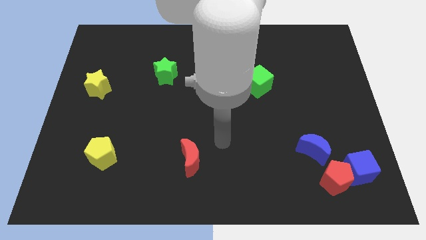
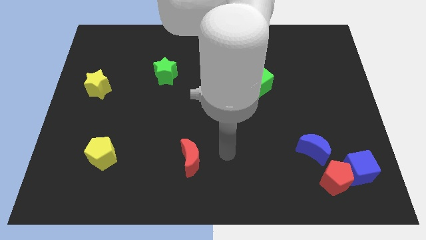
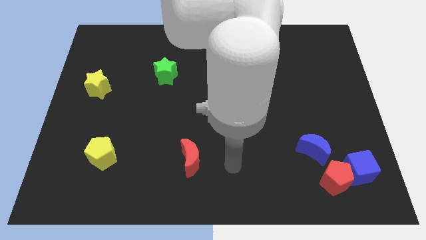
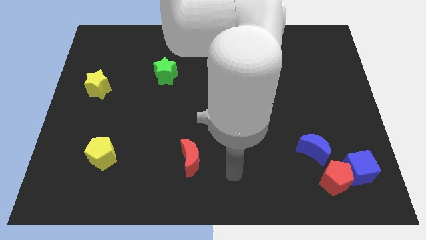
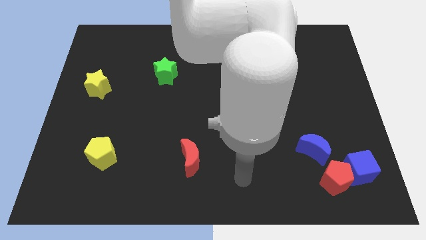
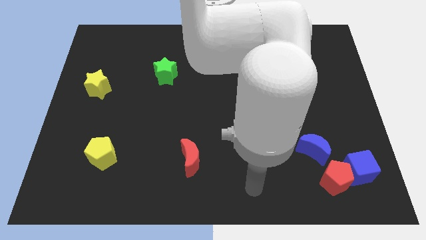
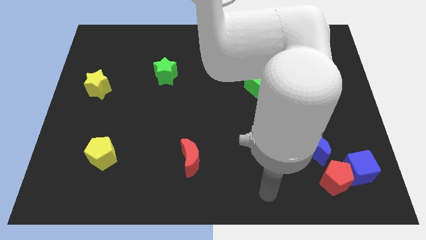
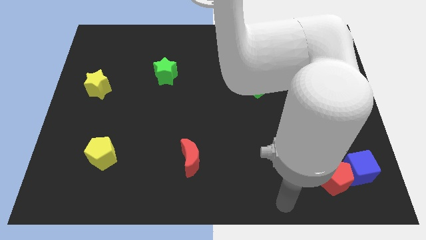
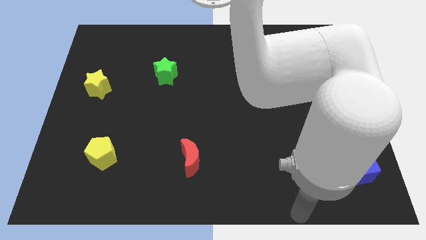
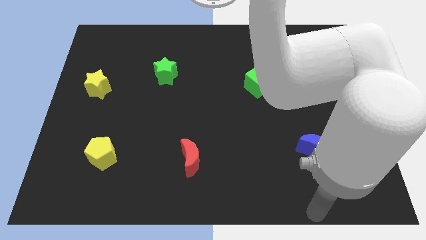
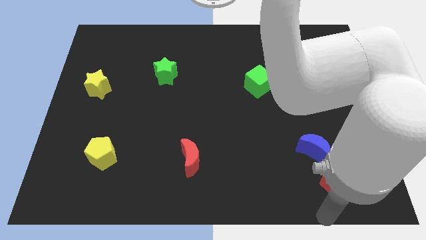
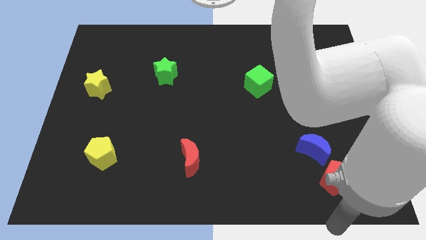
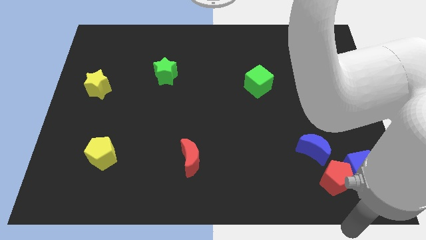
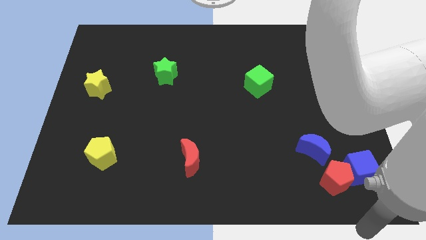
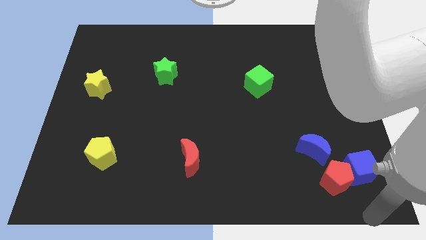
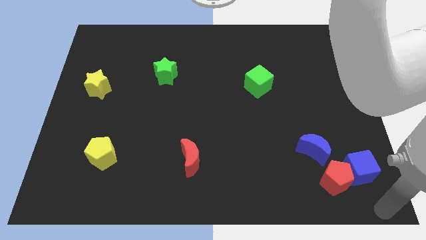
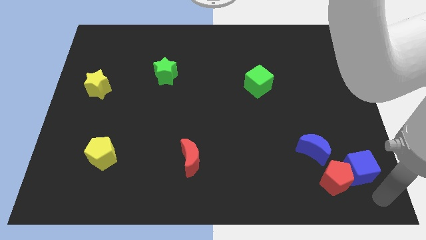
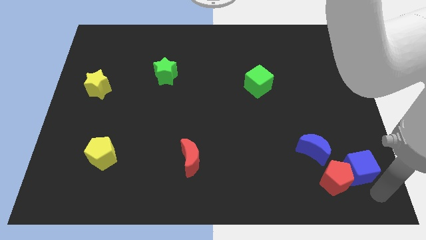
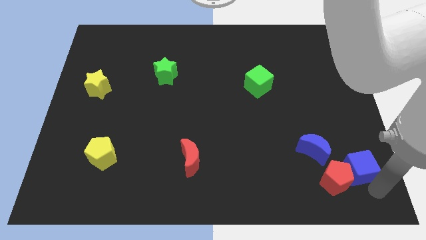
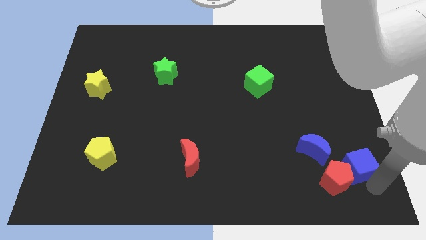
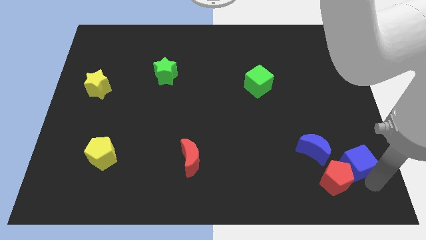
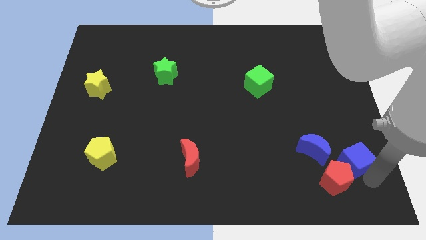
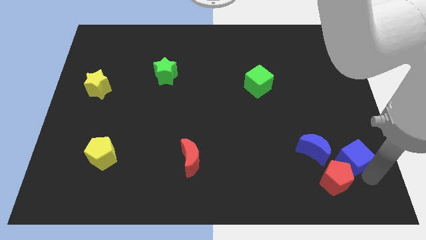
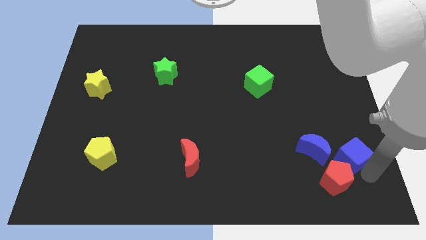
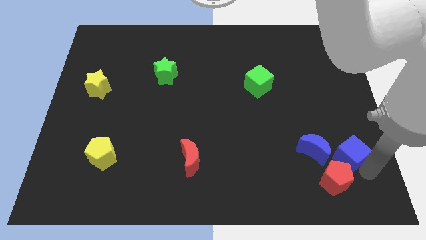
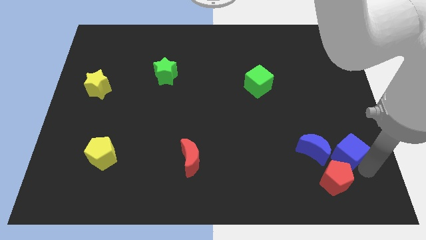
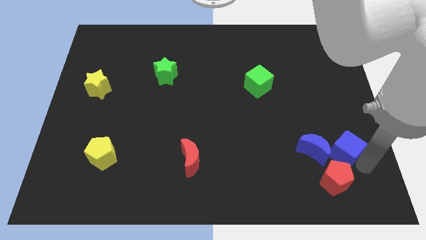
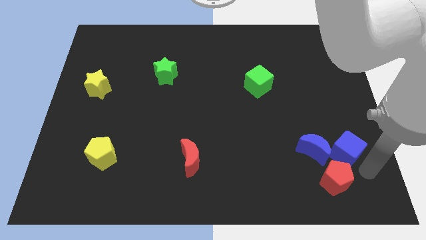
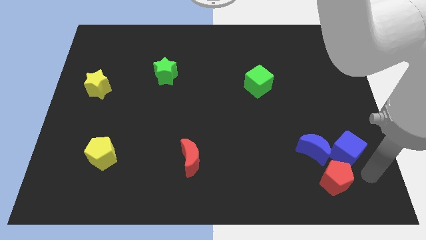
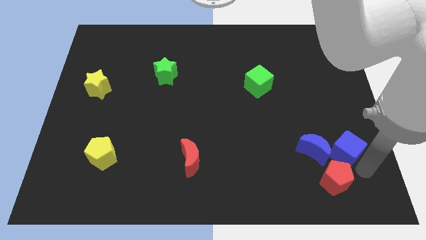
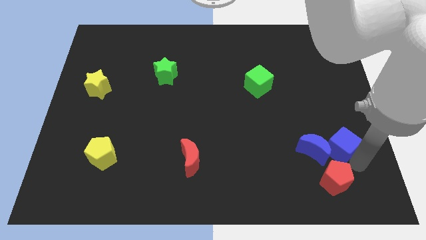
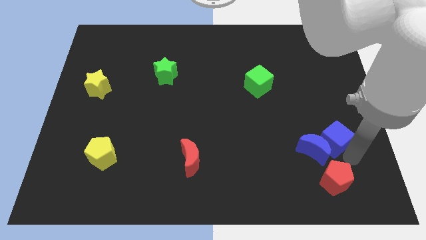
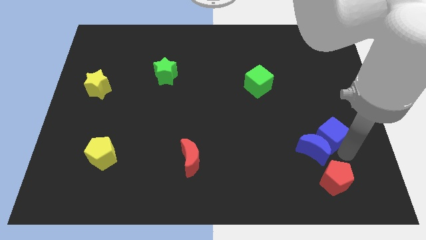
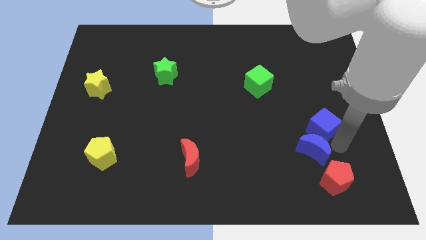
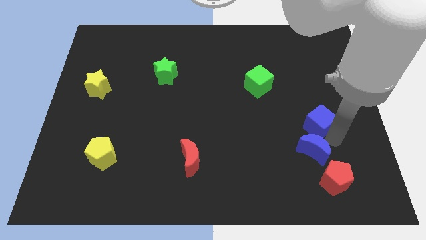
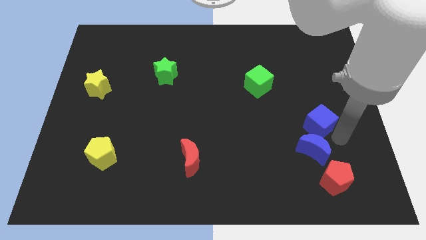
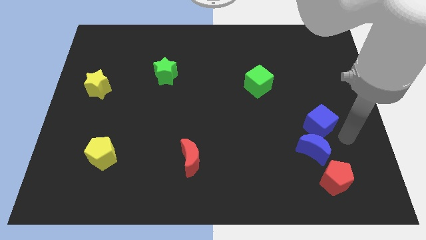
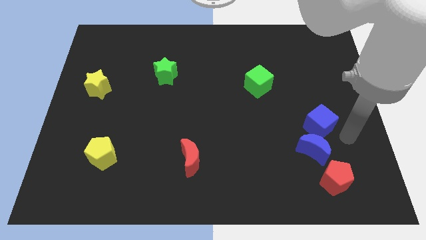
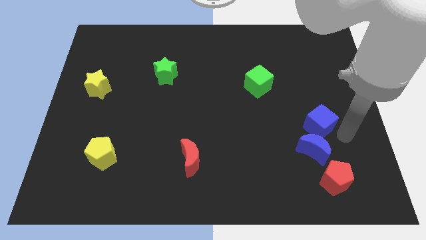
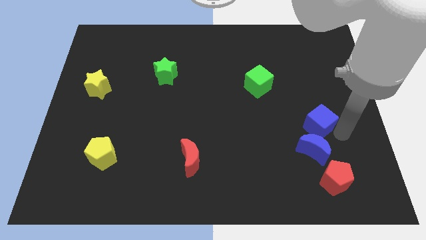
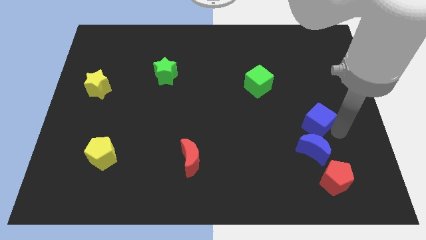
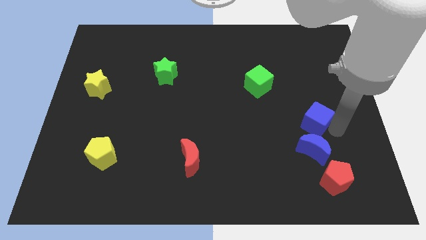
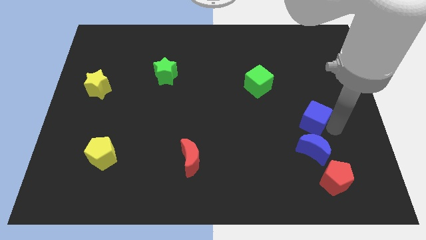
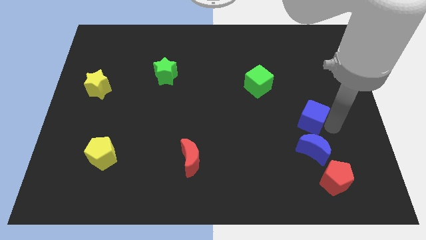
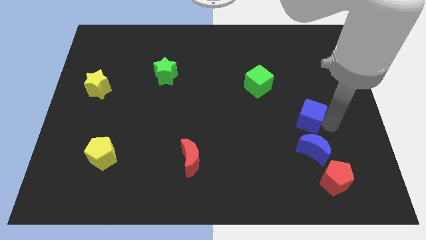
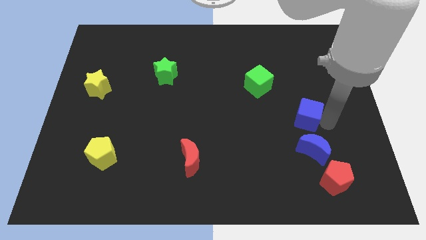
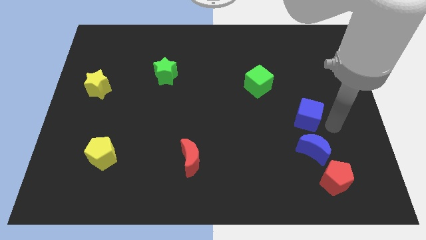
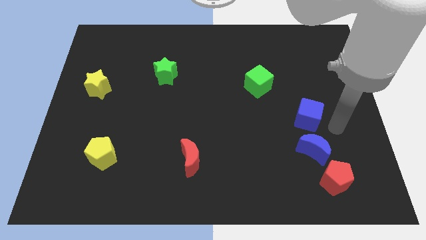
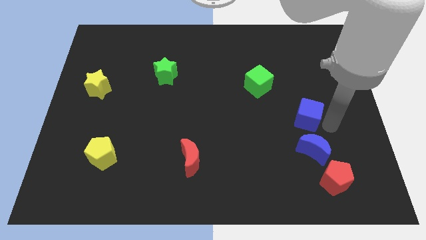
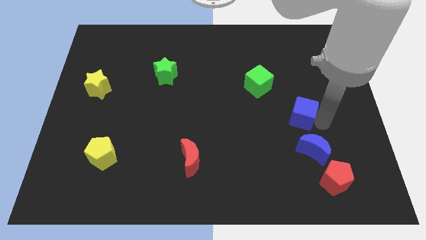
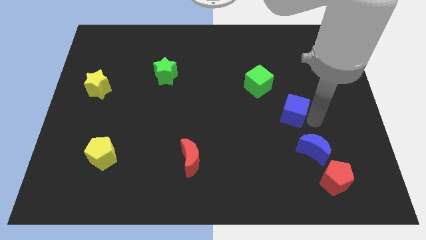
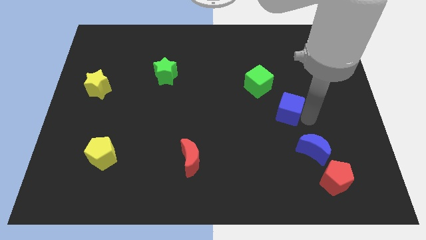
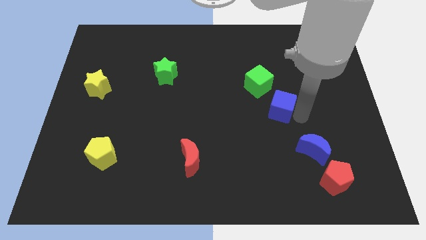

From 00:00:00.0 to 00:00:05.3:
move the blue cube upwards and to the left

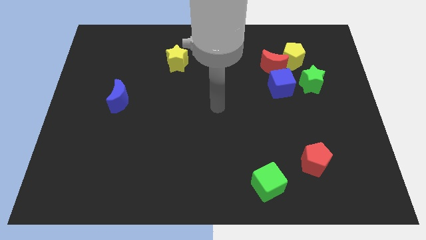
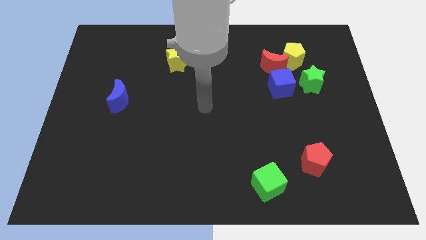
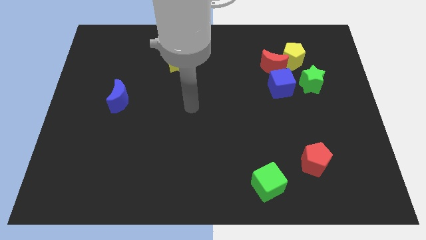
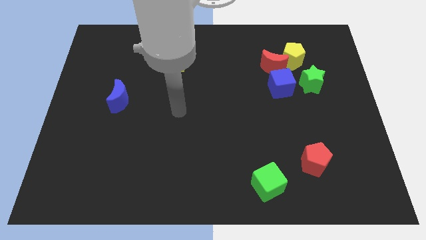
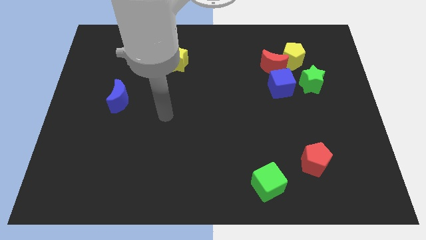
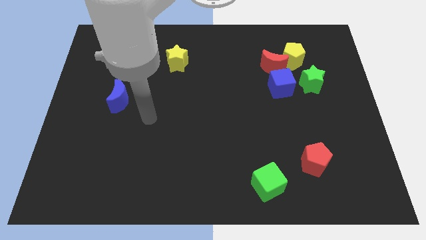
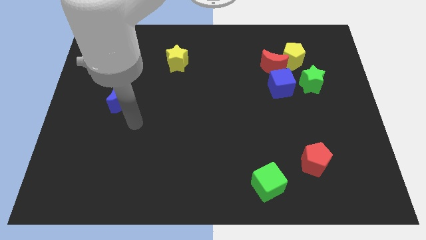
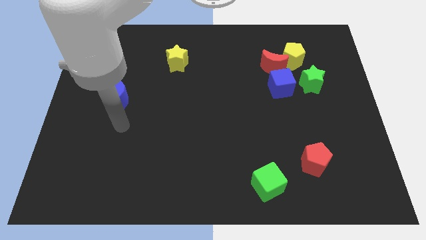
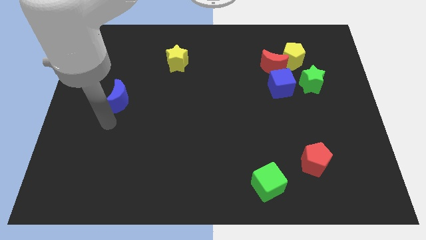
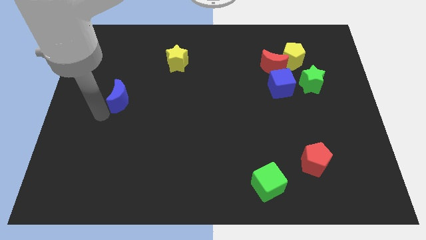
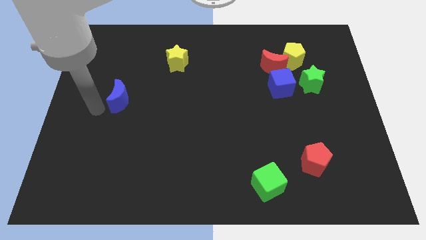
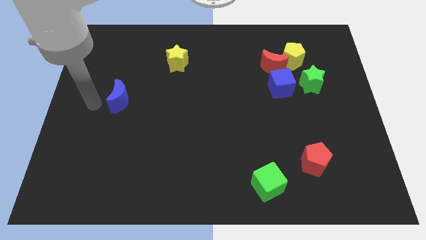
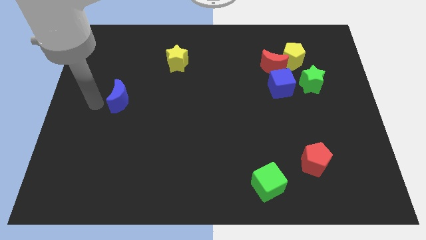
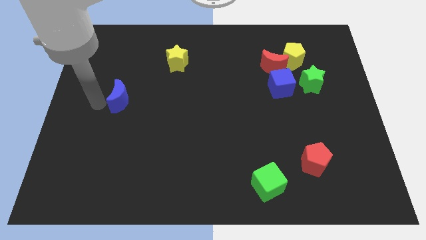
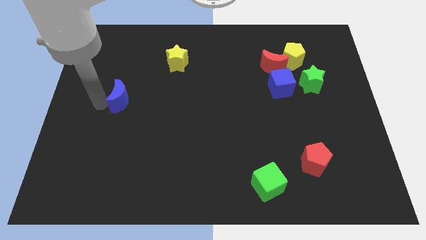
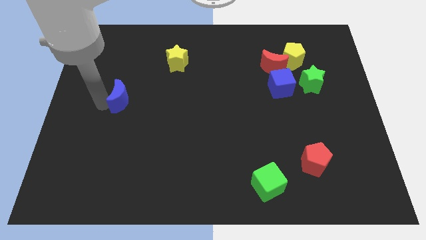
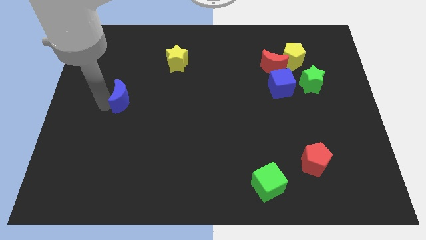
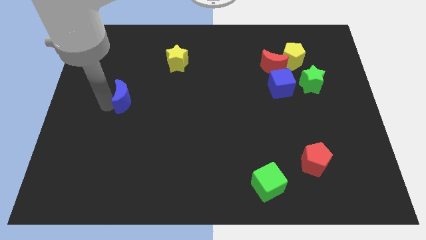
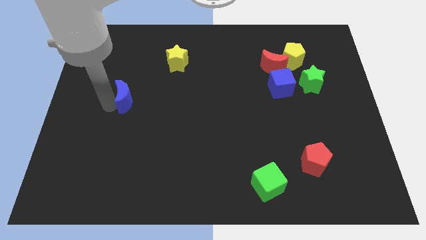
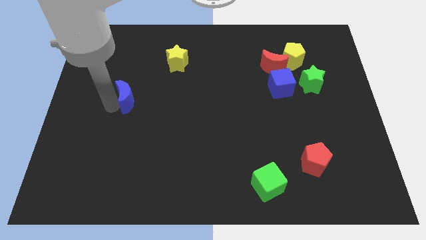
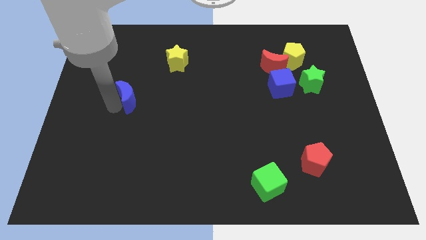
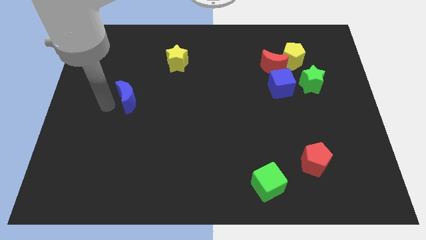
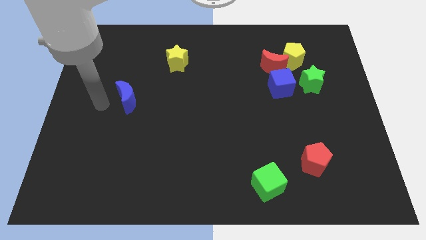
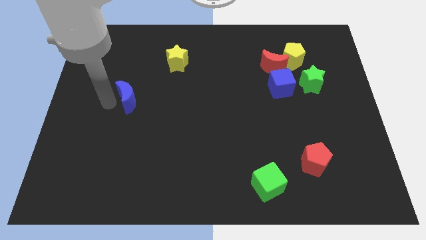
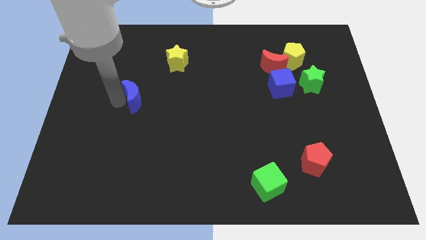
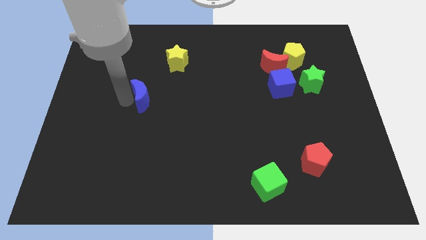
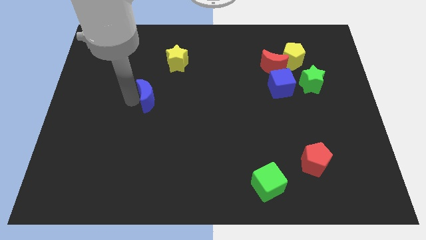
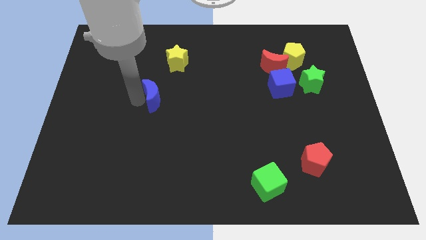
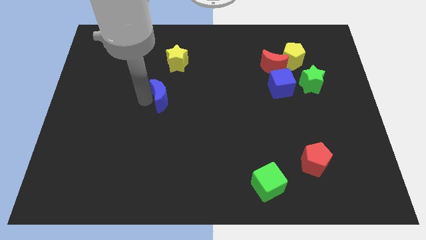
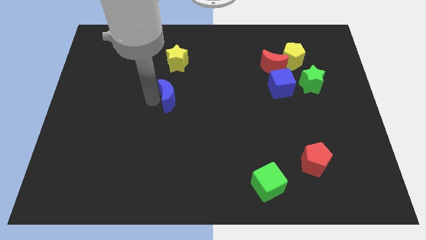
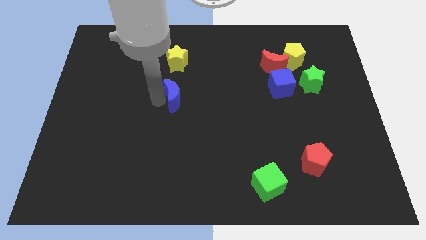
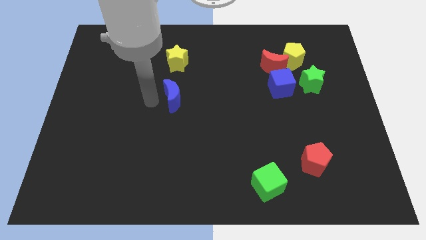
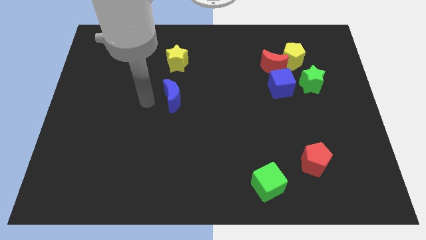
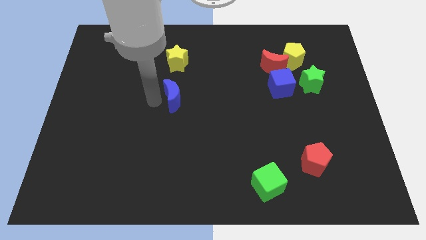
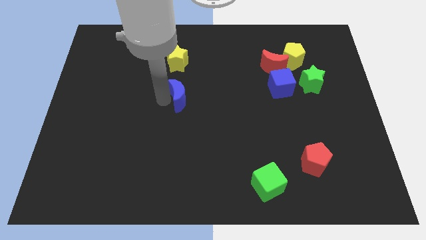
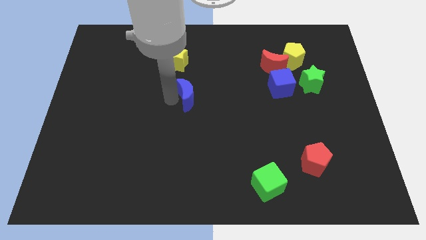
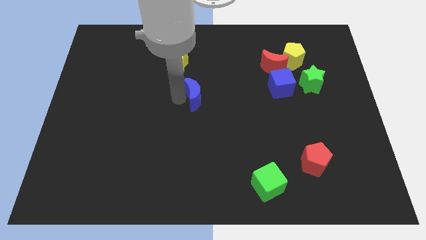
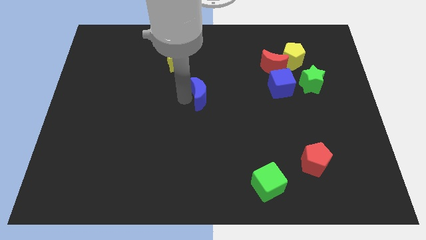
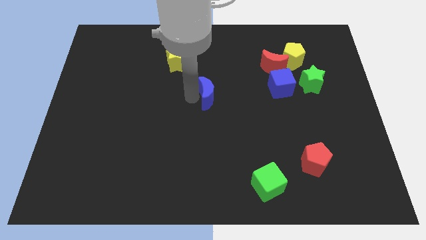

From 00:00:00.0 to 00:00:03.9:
push the blue moon right
